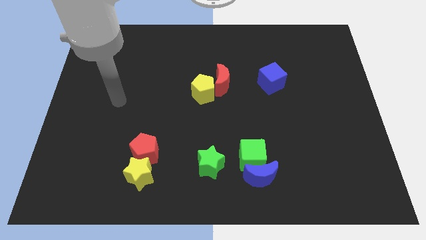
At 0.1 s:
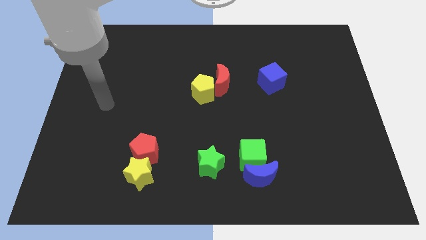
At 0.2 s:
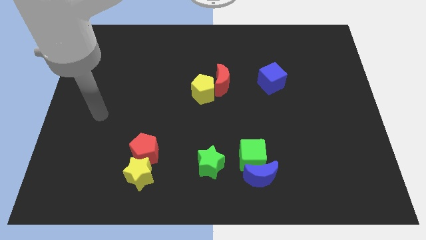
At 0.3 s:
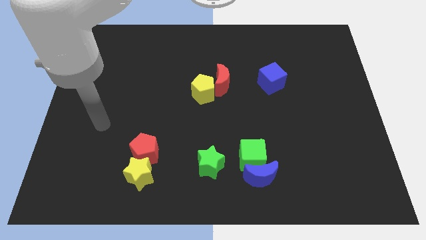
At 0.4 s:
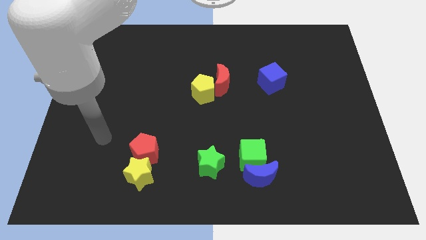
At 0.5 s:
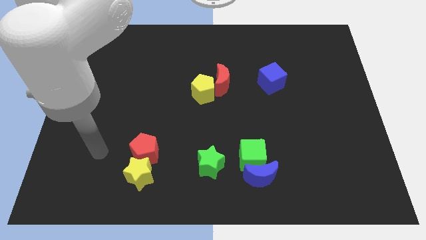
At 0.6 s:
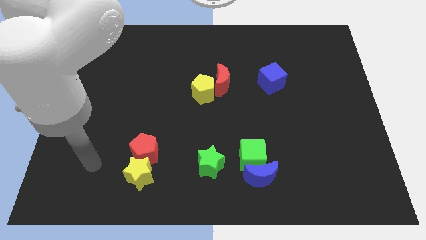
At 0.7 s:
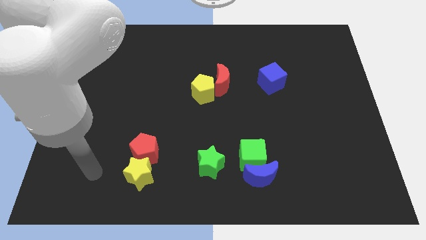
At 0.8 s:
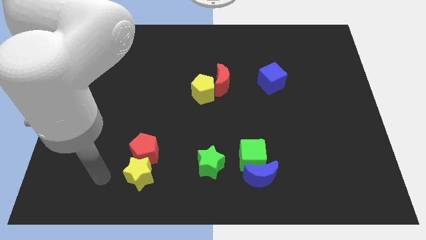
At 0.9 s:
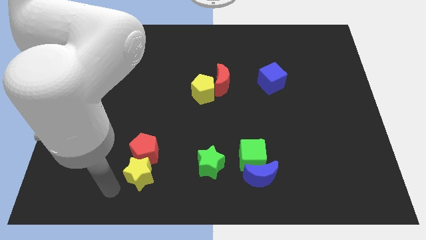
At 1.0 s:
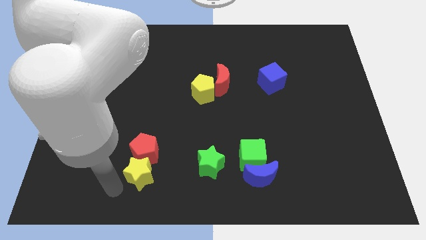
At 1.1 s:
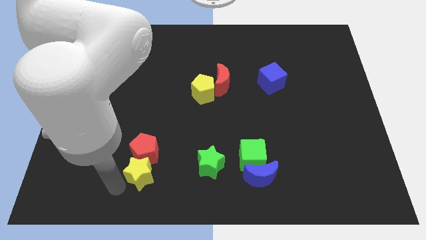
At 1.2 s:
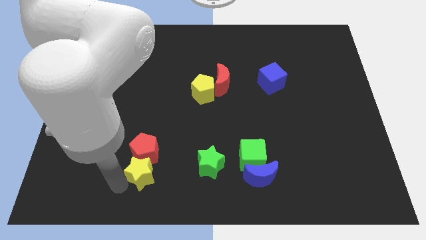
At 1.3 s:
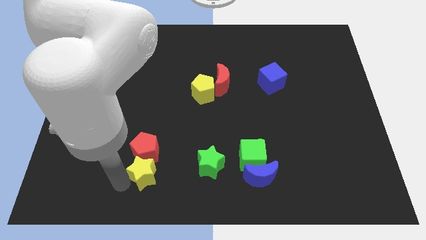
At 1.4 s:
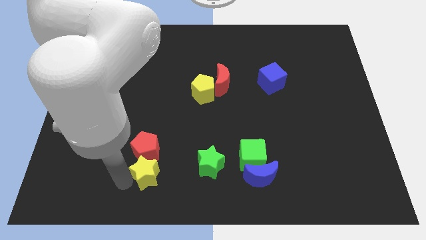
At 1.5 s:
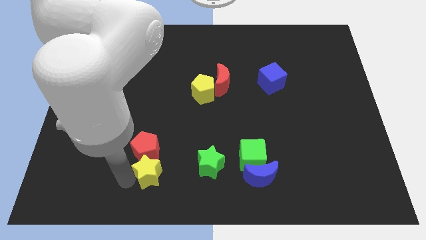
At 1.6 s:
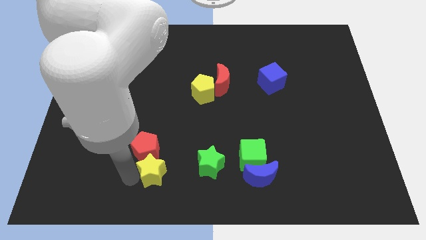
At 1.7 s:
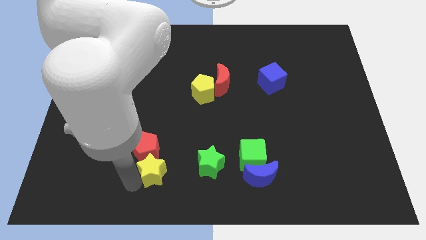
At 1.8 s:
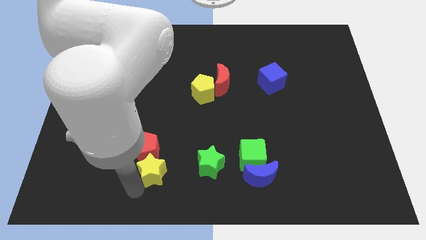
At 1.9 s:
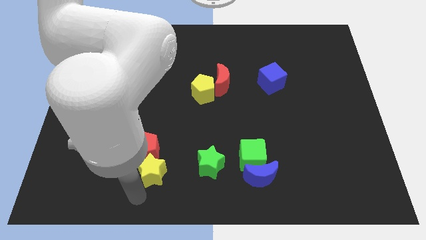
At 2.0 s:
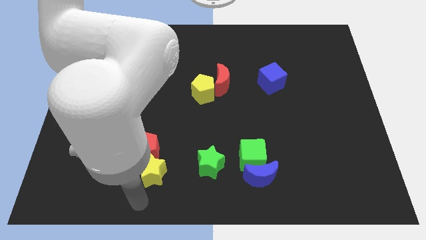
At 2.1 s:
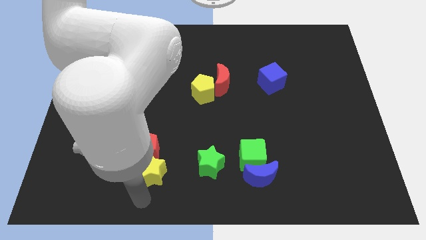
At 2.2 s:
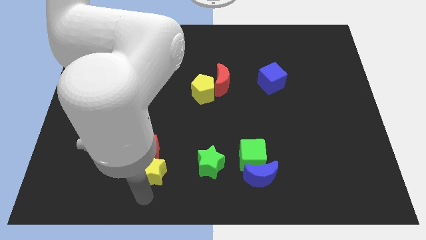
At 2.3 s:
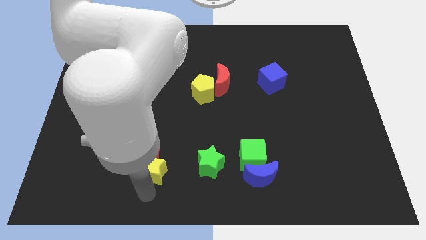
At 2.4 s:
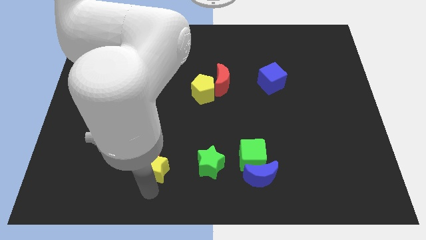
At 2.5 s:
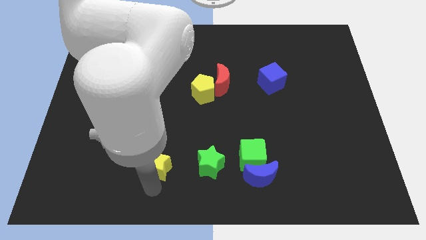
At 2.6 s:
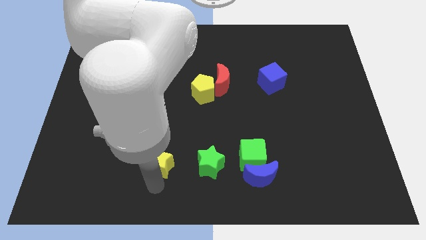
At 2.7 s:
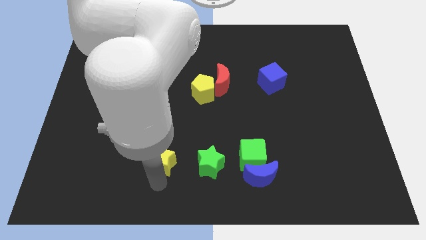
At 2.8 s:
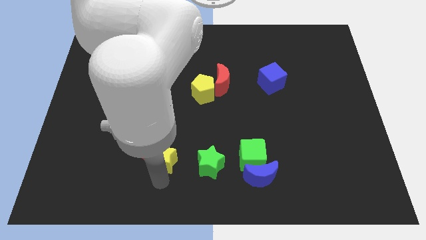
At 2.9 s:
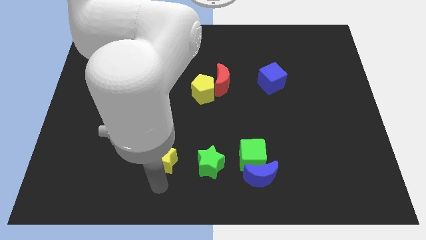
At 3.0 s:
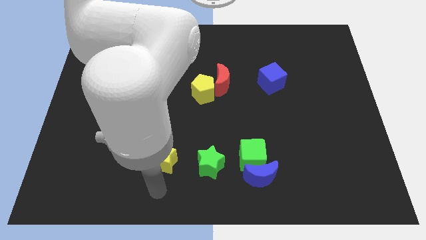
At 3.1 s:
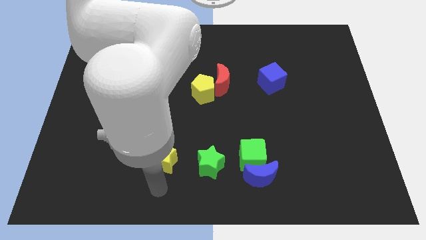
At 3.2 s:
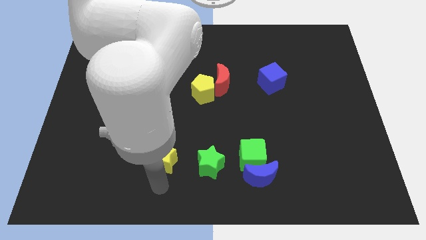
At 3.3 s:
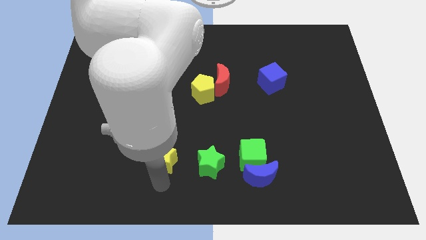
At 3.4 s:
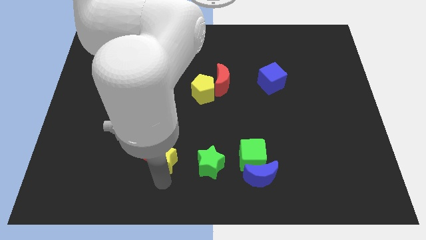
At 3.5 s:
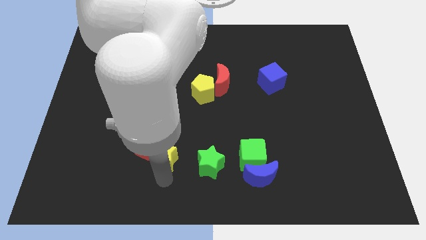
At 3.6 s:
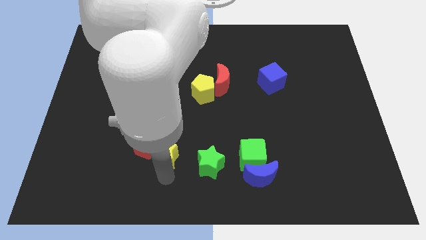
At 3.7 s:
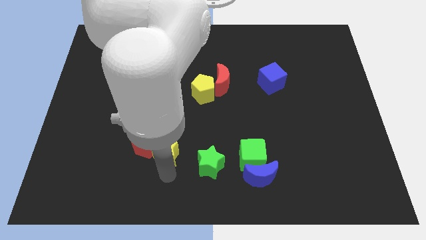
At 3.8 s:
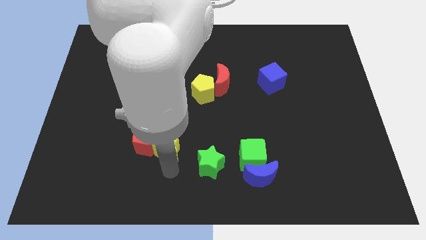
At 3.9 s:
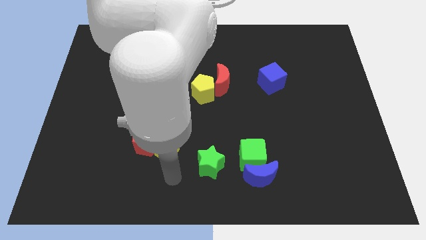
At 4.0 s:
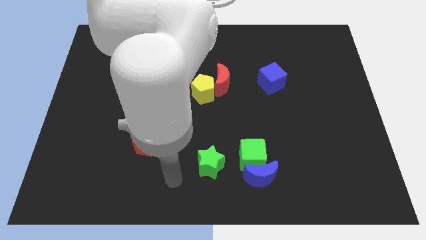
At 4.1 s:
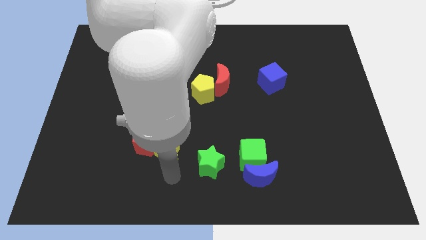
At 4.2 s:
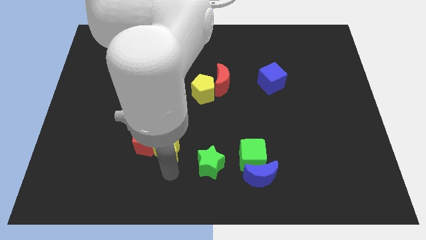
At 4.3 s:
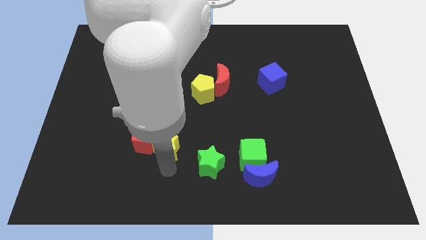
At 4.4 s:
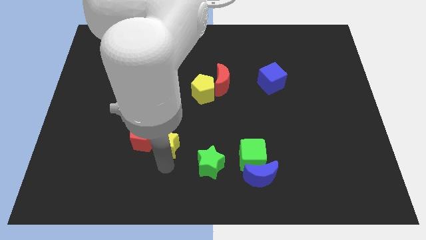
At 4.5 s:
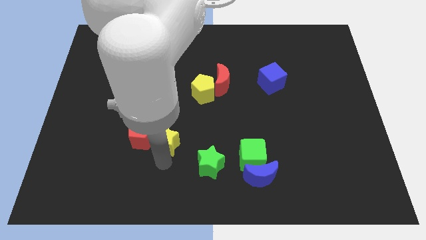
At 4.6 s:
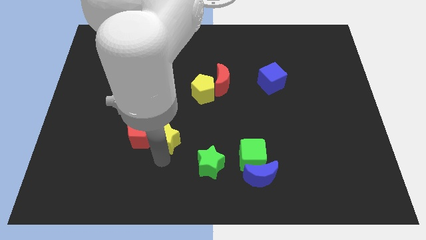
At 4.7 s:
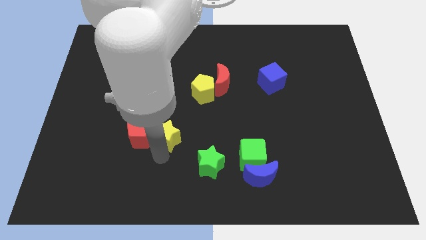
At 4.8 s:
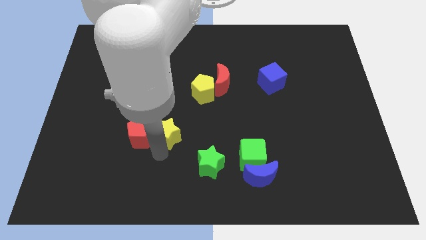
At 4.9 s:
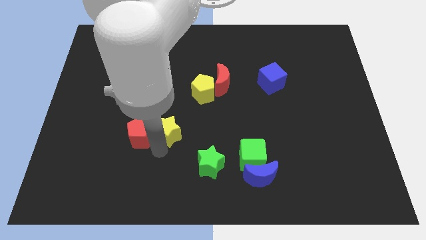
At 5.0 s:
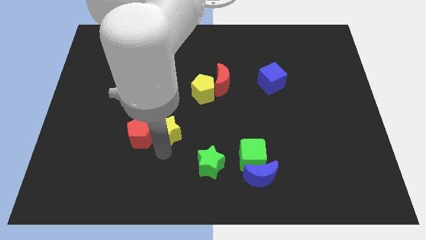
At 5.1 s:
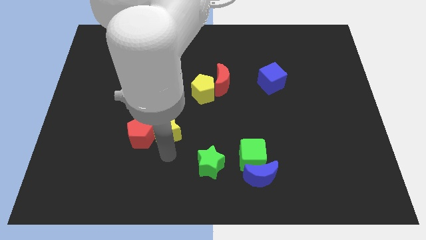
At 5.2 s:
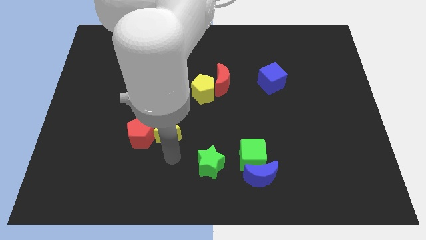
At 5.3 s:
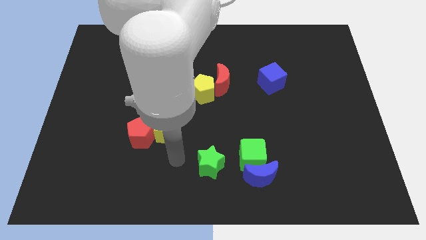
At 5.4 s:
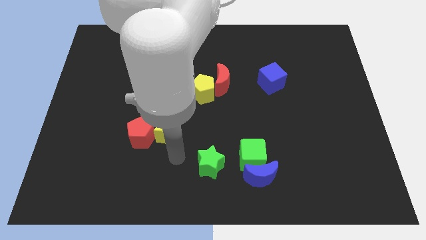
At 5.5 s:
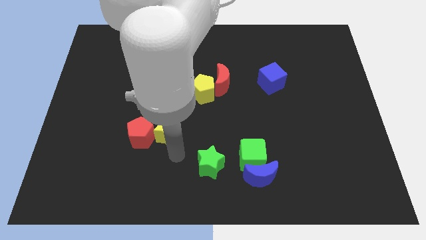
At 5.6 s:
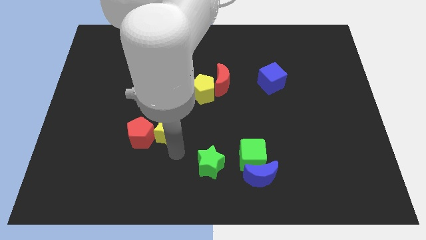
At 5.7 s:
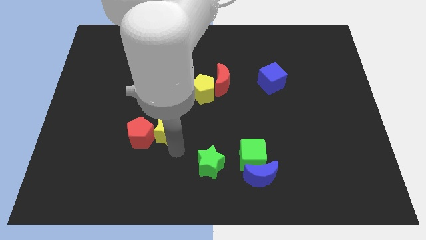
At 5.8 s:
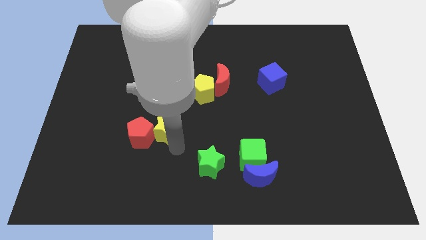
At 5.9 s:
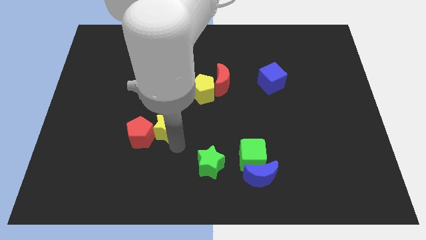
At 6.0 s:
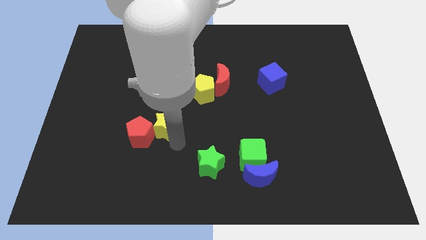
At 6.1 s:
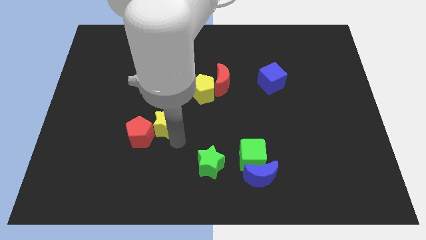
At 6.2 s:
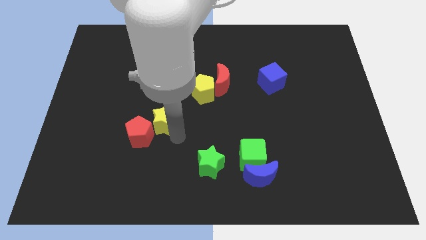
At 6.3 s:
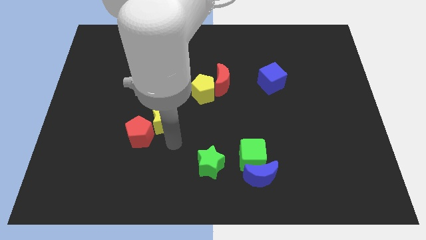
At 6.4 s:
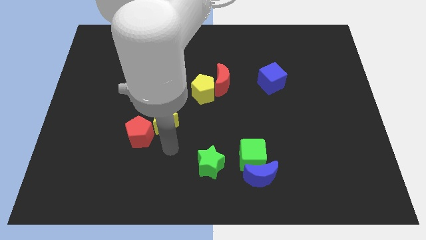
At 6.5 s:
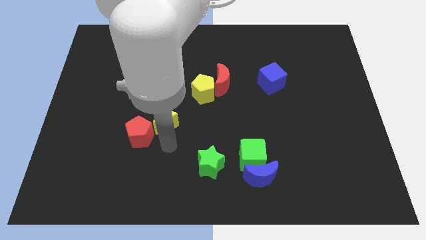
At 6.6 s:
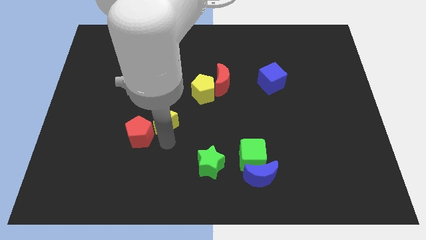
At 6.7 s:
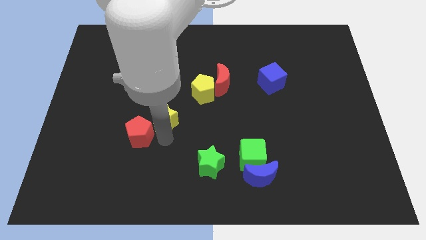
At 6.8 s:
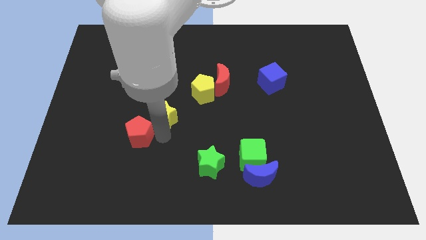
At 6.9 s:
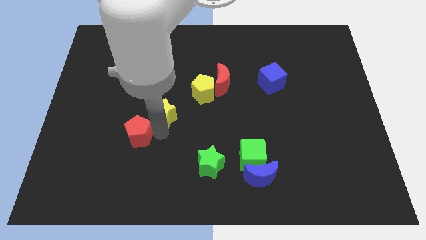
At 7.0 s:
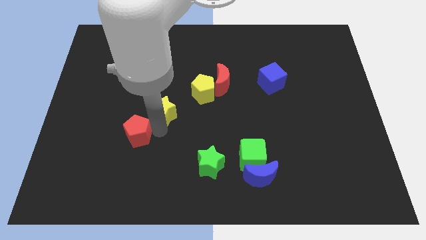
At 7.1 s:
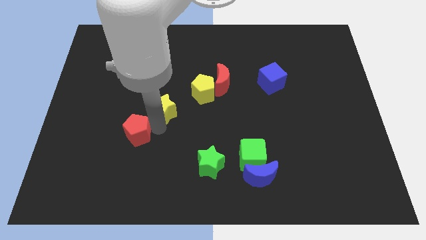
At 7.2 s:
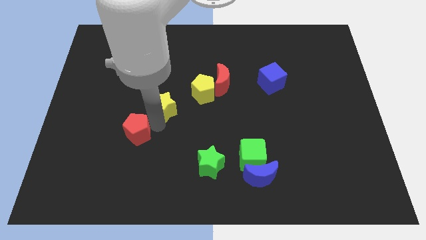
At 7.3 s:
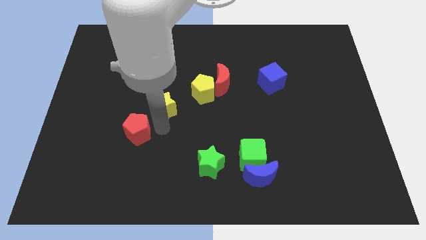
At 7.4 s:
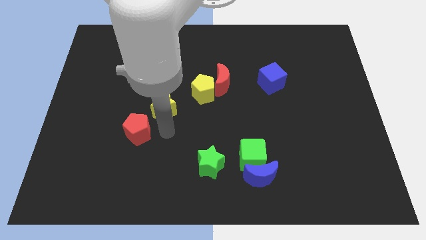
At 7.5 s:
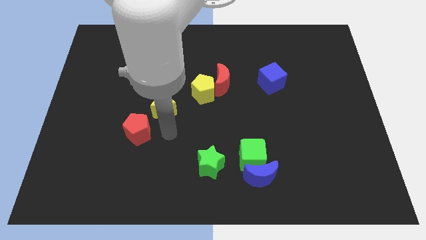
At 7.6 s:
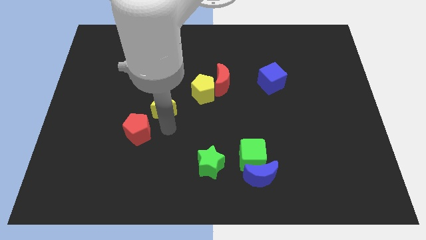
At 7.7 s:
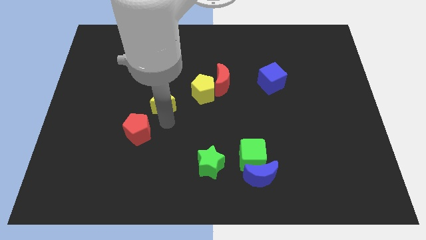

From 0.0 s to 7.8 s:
move the yellow star left of the yellow pentagon
